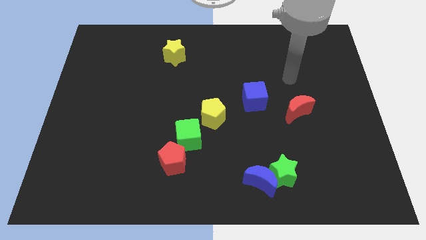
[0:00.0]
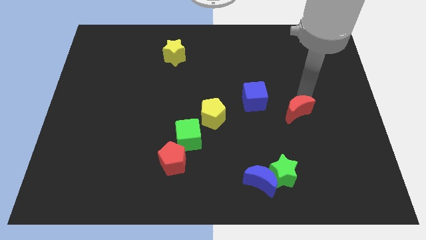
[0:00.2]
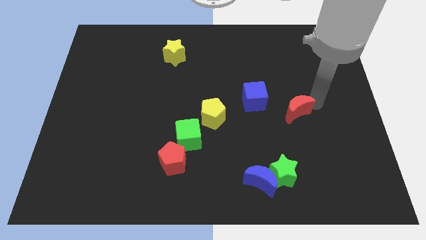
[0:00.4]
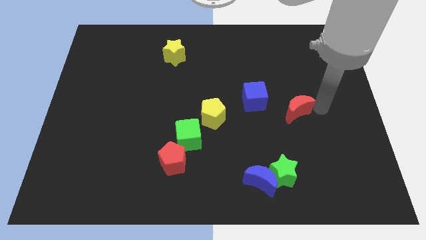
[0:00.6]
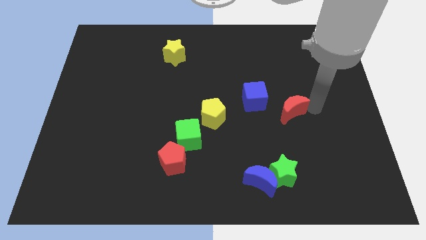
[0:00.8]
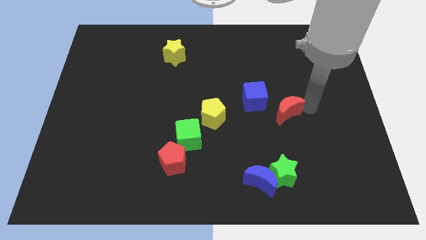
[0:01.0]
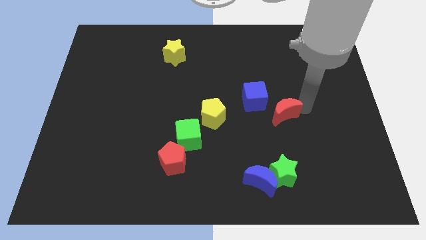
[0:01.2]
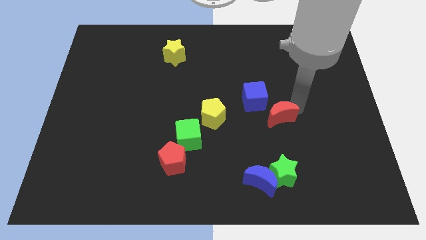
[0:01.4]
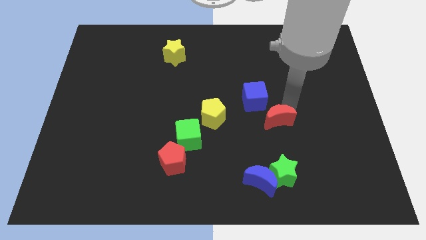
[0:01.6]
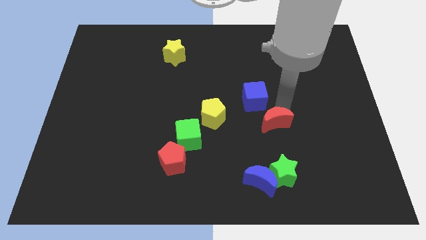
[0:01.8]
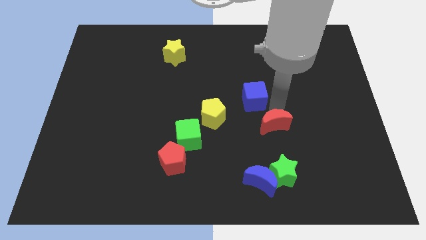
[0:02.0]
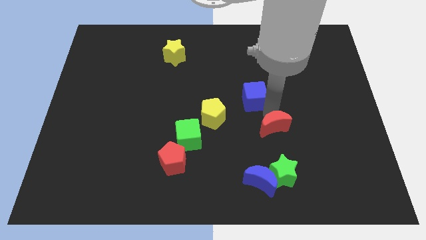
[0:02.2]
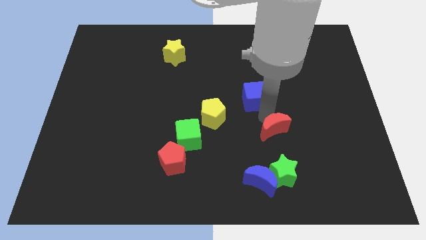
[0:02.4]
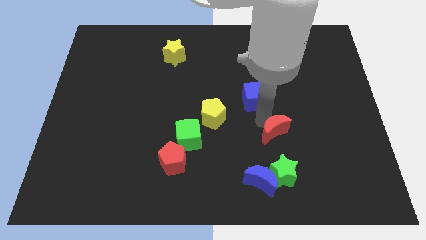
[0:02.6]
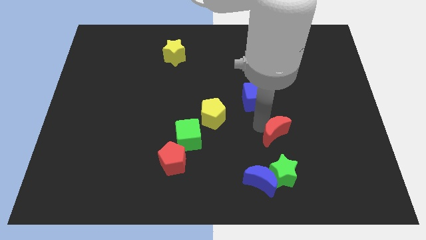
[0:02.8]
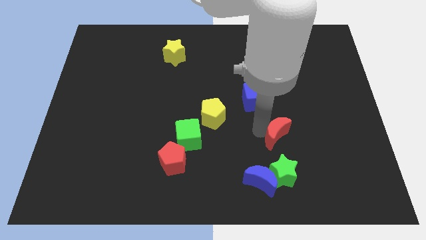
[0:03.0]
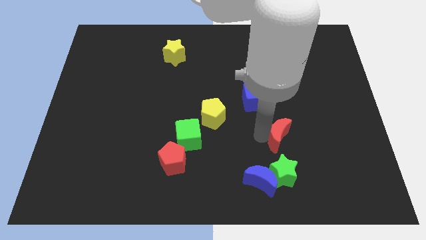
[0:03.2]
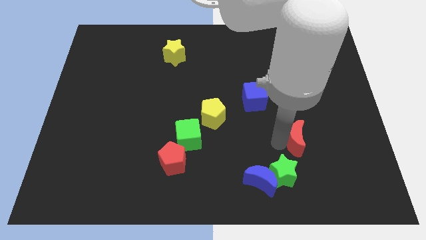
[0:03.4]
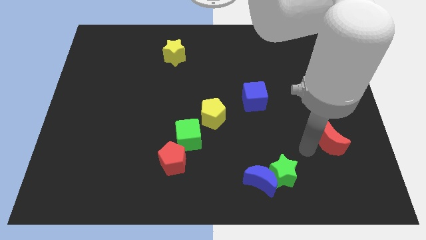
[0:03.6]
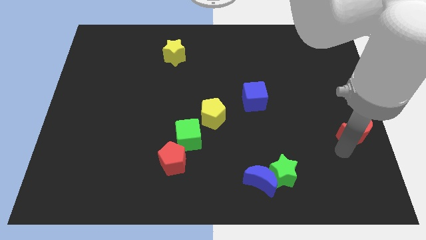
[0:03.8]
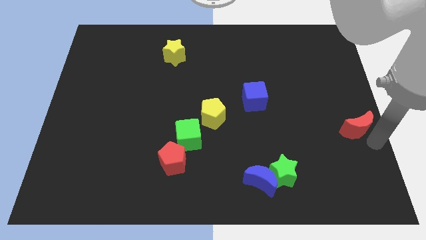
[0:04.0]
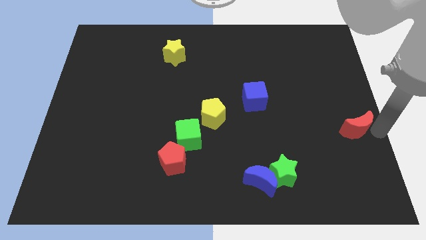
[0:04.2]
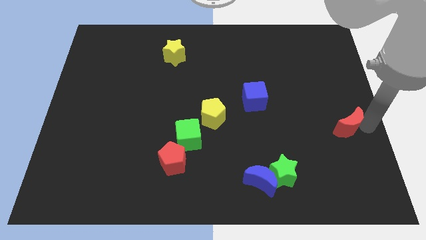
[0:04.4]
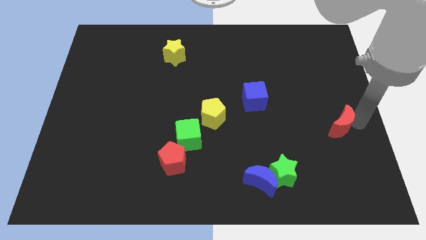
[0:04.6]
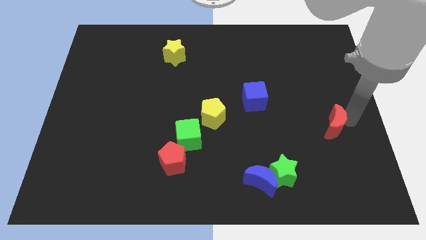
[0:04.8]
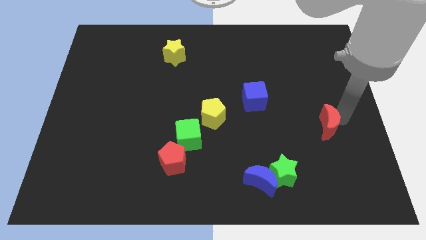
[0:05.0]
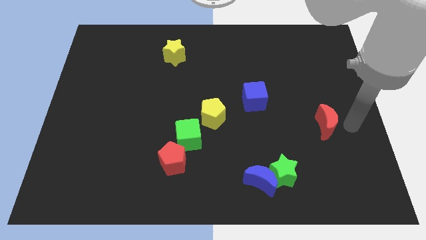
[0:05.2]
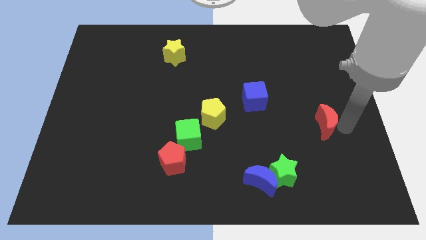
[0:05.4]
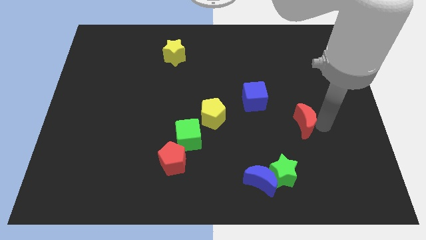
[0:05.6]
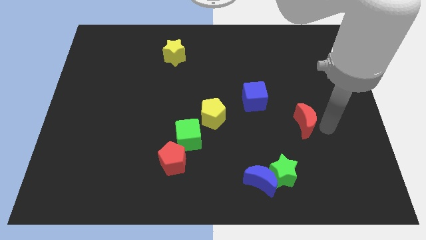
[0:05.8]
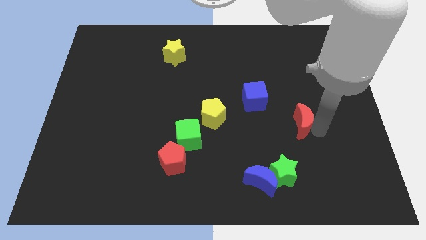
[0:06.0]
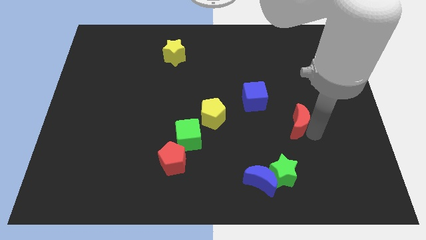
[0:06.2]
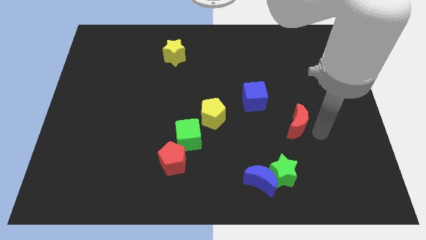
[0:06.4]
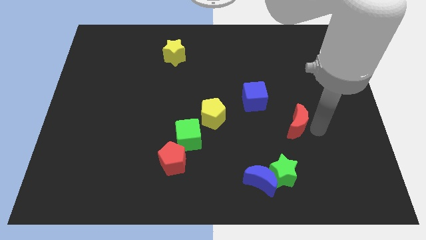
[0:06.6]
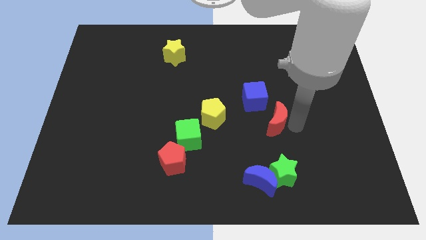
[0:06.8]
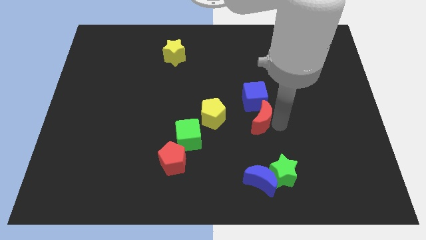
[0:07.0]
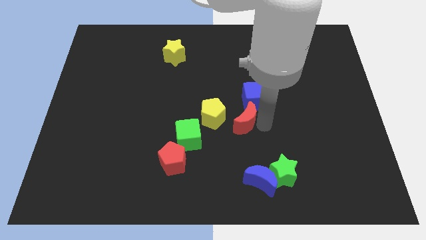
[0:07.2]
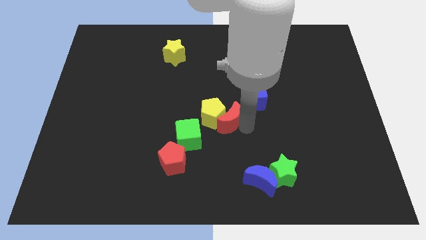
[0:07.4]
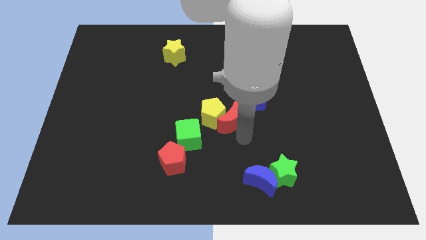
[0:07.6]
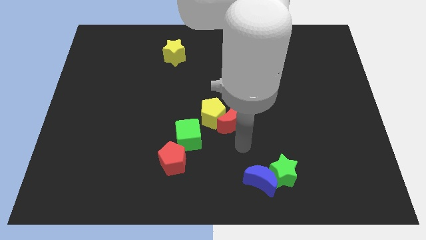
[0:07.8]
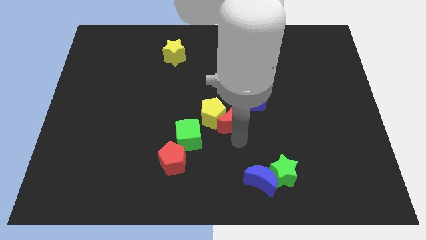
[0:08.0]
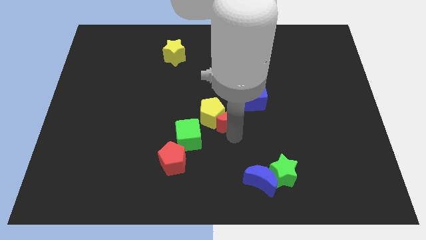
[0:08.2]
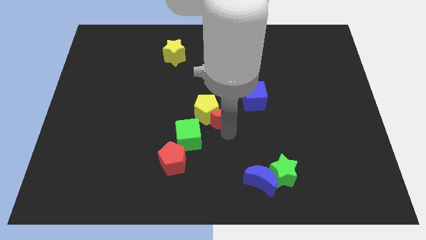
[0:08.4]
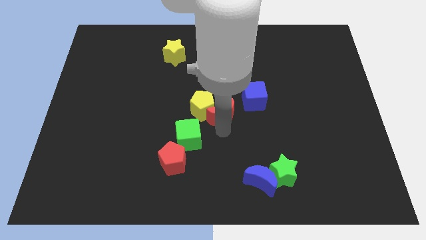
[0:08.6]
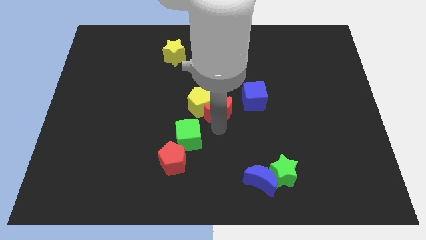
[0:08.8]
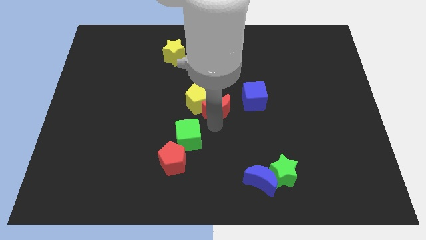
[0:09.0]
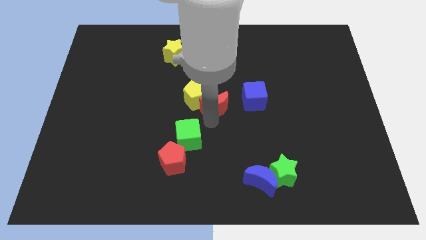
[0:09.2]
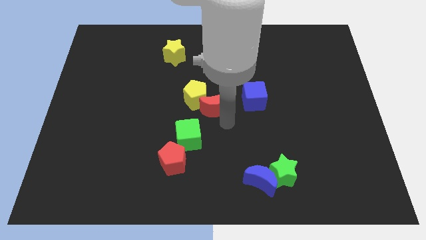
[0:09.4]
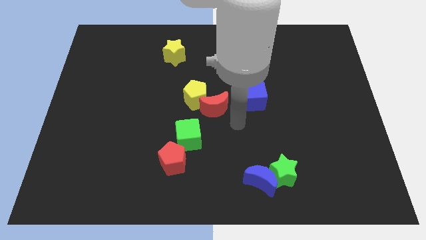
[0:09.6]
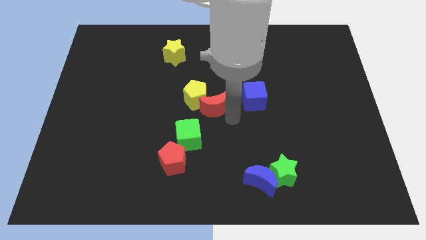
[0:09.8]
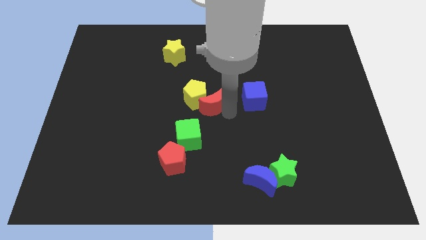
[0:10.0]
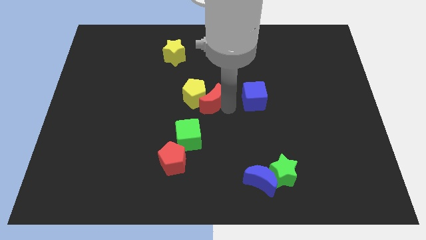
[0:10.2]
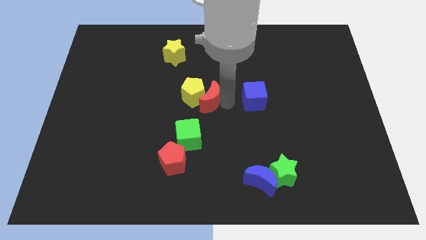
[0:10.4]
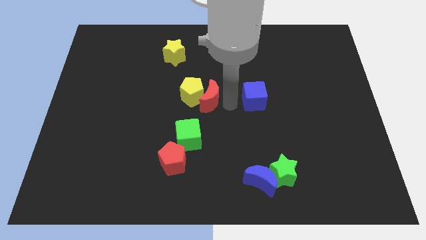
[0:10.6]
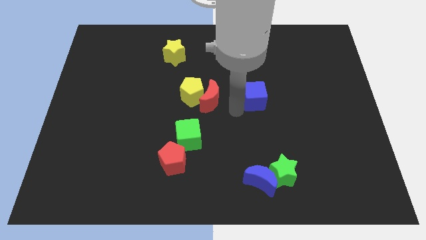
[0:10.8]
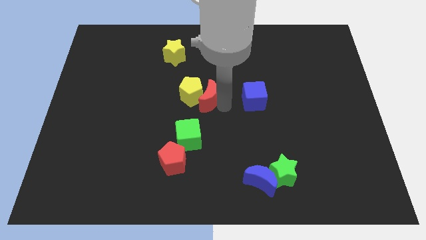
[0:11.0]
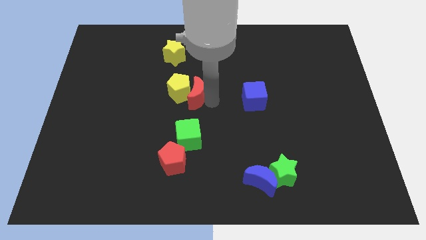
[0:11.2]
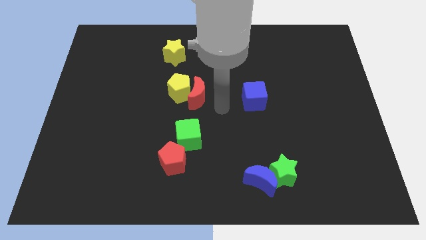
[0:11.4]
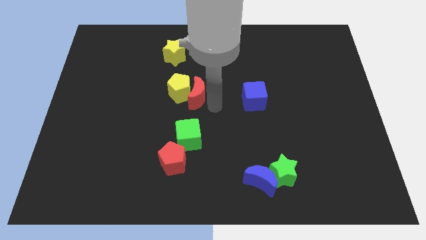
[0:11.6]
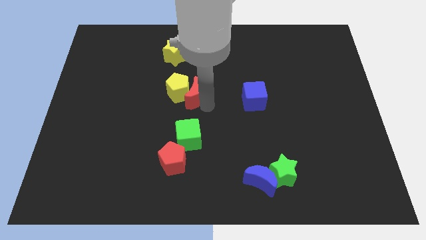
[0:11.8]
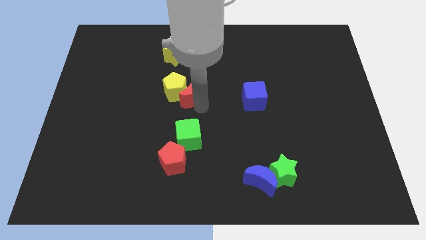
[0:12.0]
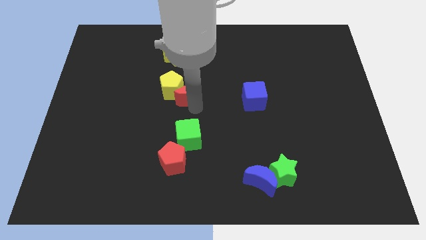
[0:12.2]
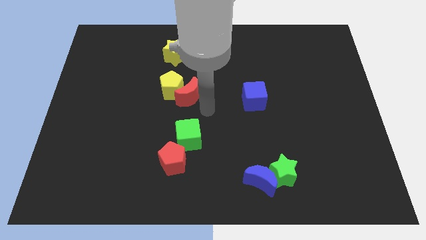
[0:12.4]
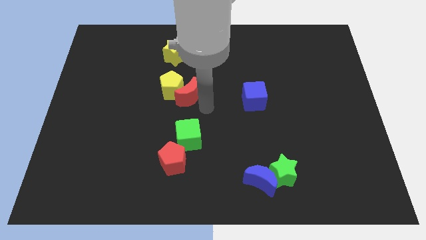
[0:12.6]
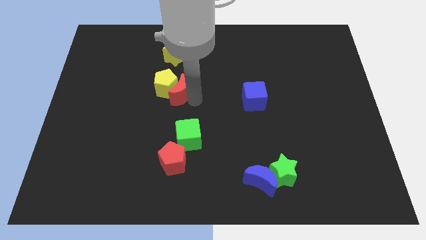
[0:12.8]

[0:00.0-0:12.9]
push the red moon below the yellow star

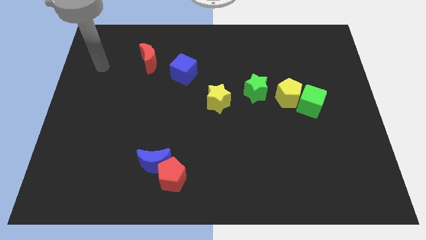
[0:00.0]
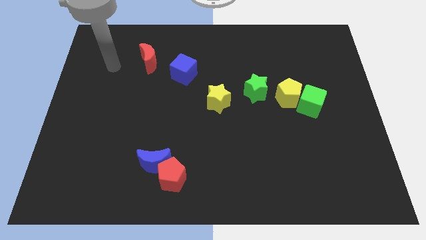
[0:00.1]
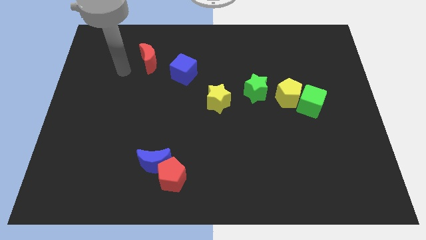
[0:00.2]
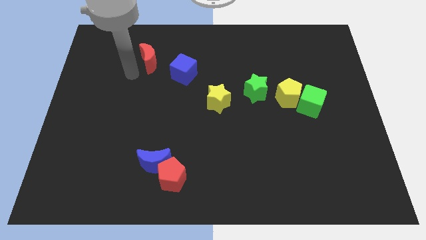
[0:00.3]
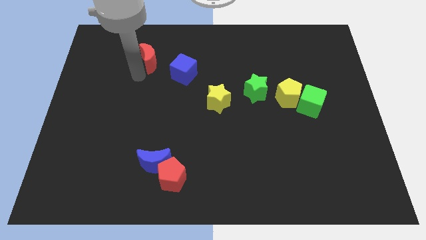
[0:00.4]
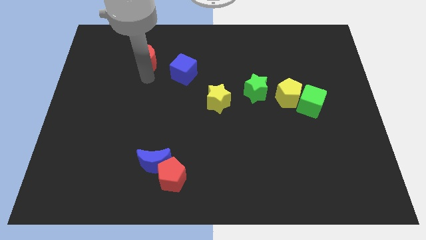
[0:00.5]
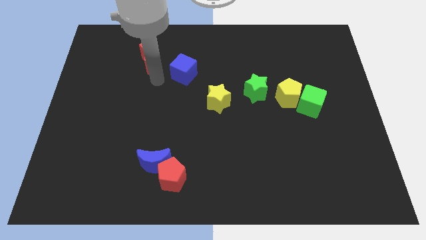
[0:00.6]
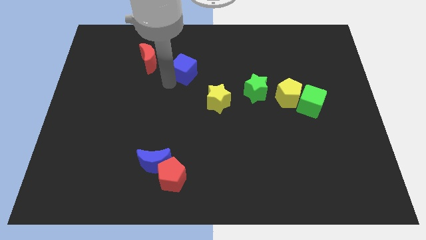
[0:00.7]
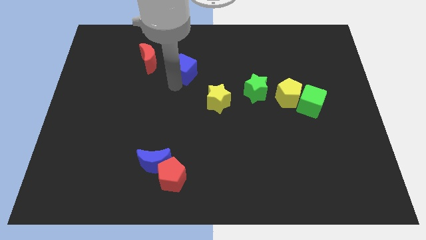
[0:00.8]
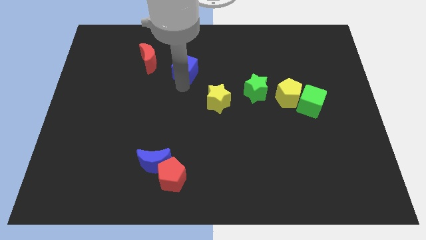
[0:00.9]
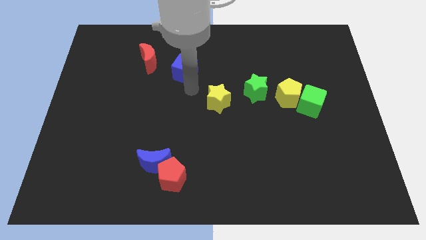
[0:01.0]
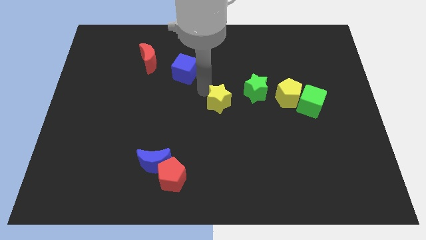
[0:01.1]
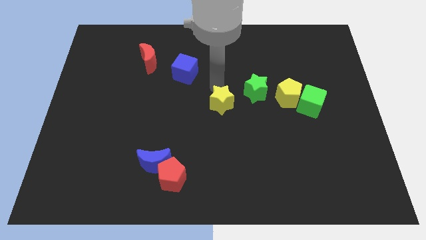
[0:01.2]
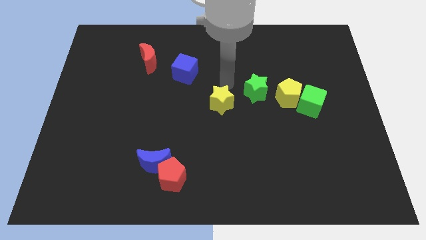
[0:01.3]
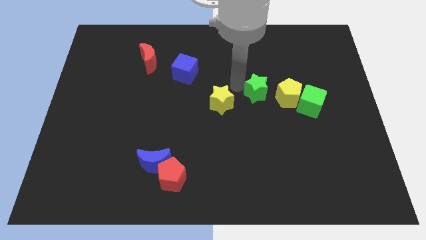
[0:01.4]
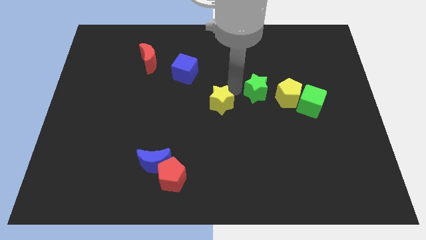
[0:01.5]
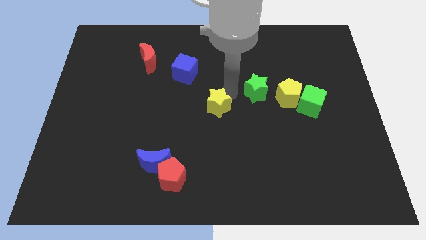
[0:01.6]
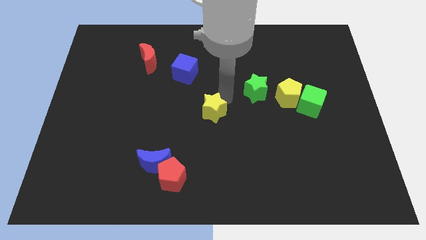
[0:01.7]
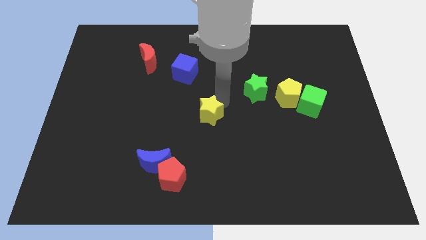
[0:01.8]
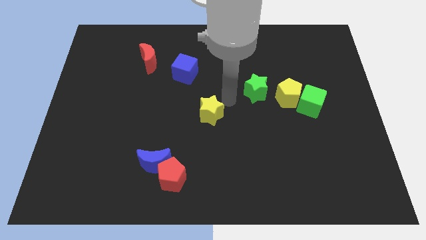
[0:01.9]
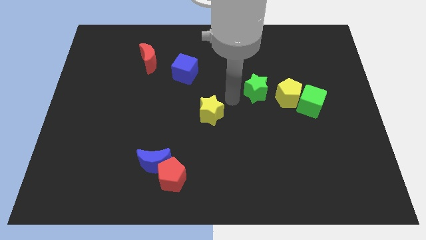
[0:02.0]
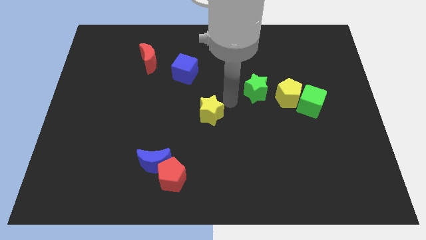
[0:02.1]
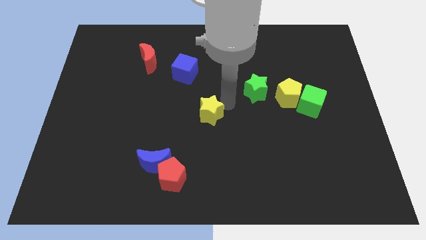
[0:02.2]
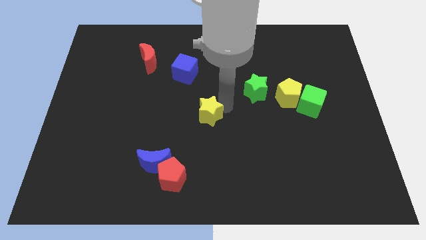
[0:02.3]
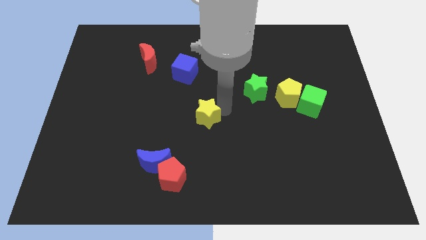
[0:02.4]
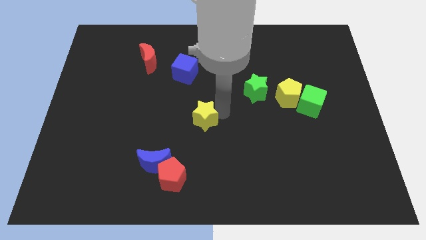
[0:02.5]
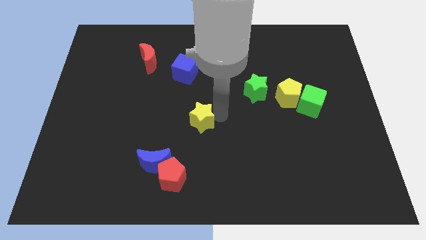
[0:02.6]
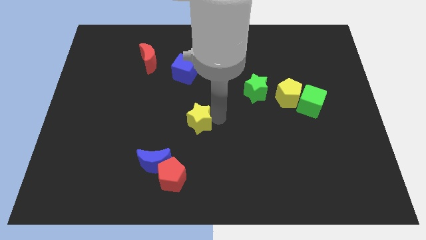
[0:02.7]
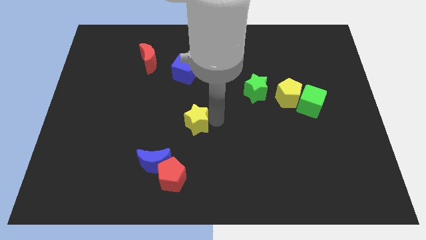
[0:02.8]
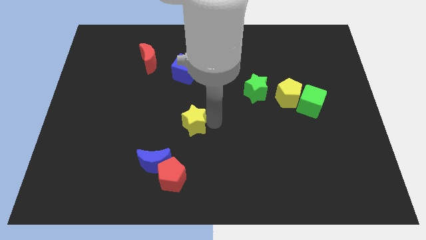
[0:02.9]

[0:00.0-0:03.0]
put the yellow star above the red pentagon
